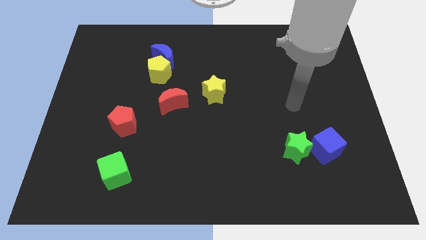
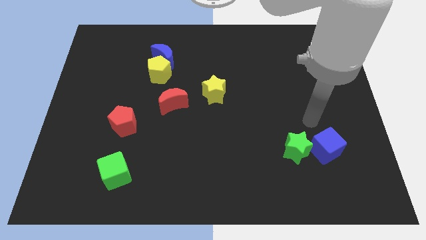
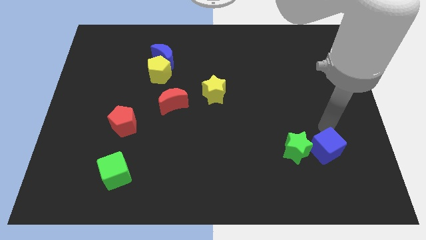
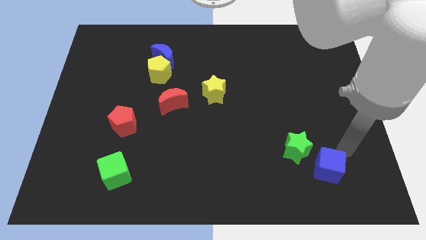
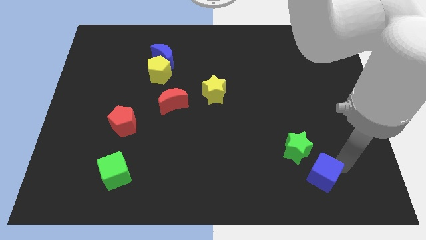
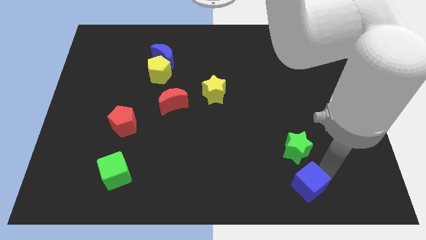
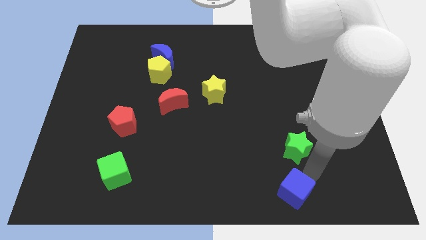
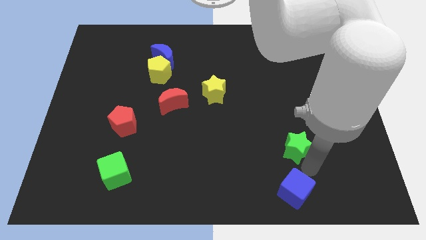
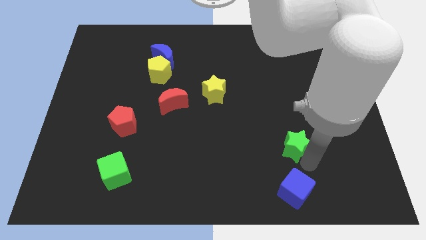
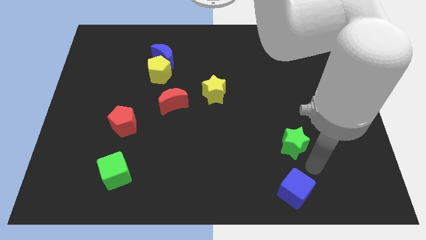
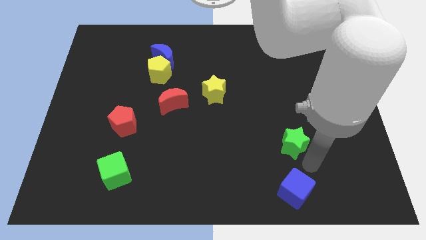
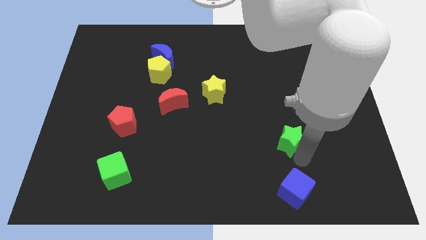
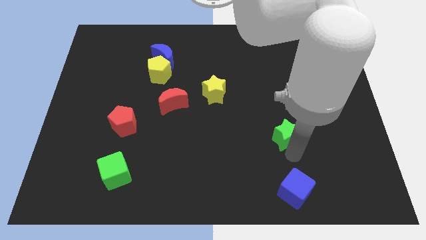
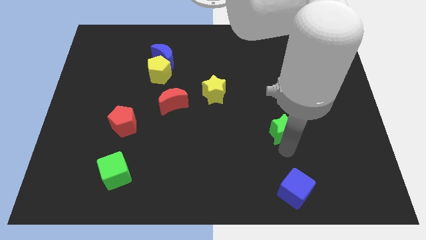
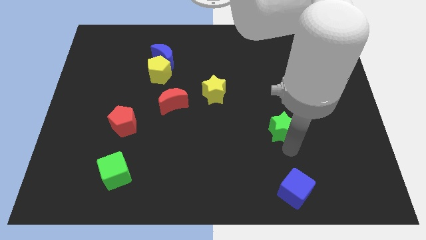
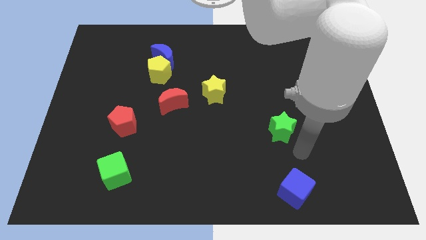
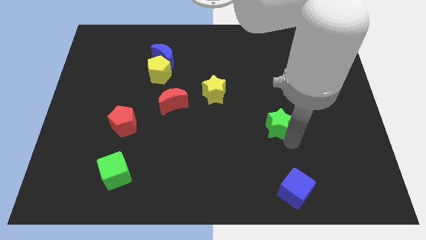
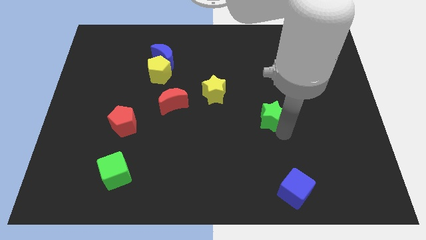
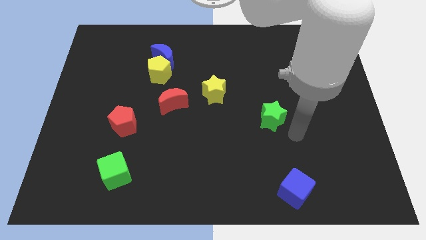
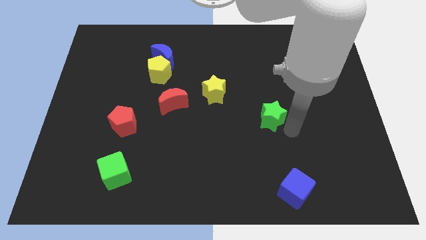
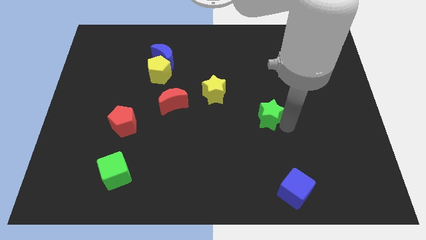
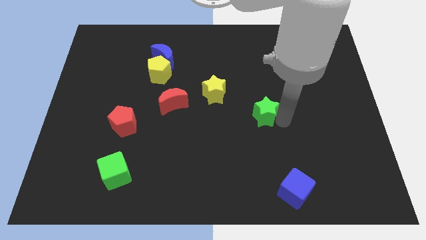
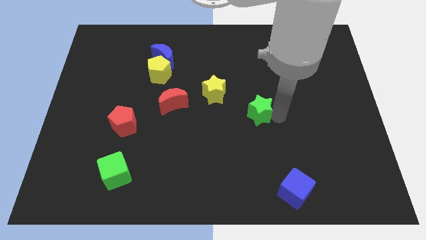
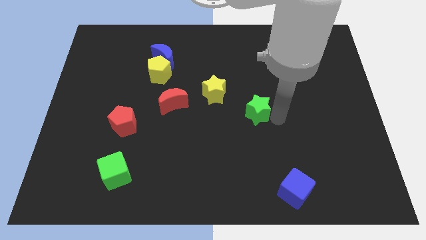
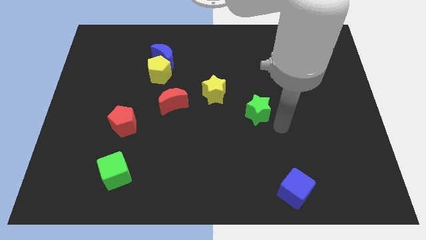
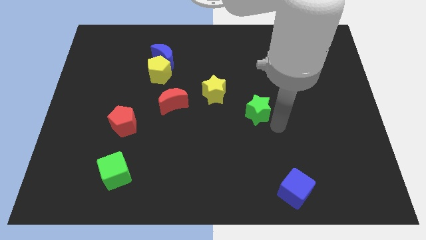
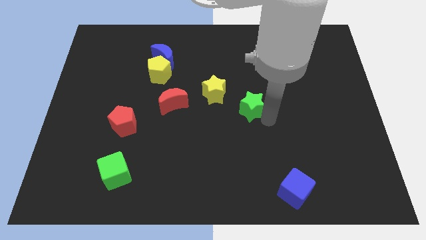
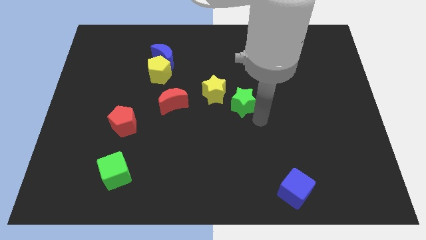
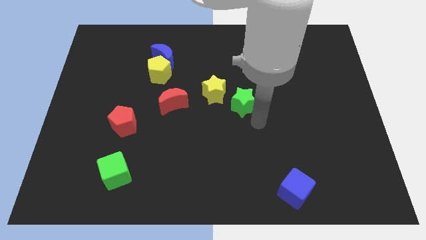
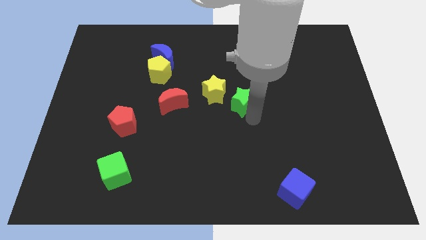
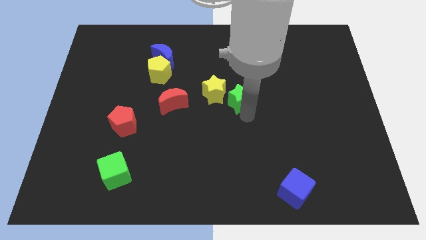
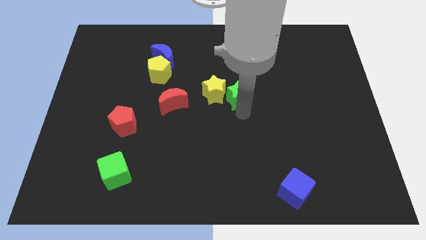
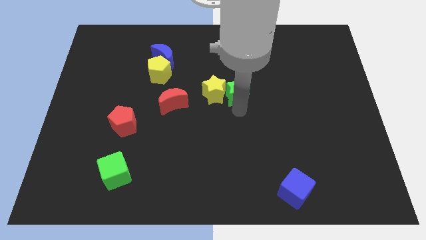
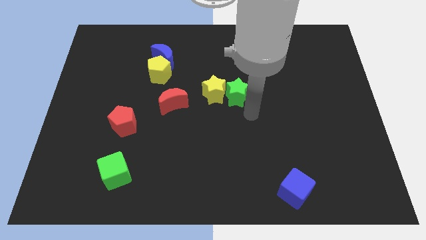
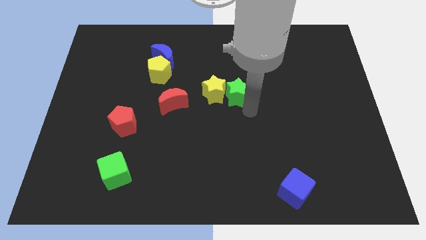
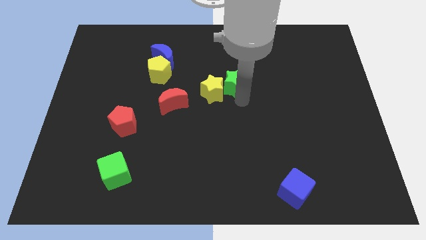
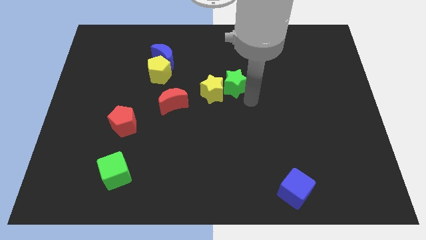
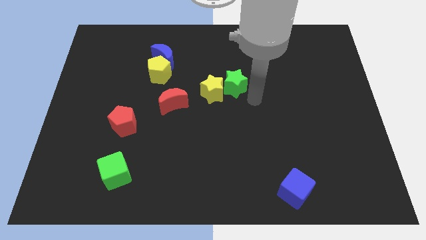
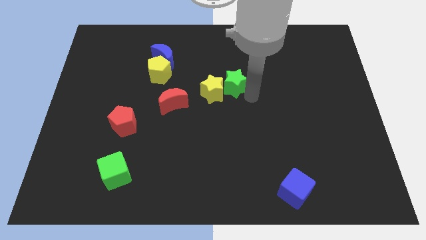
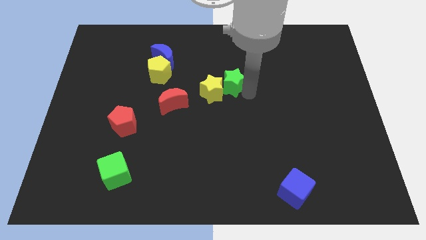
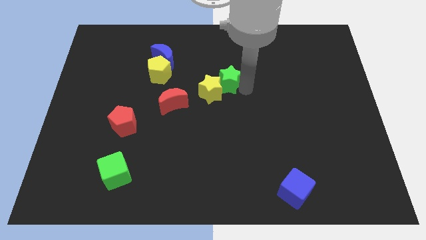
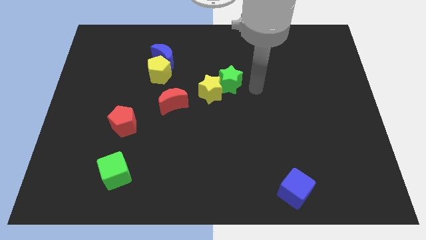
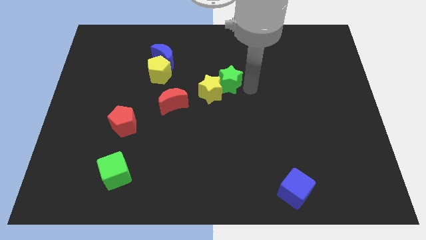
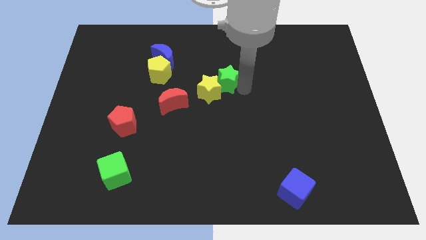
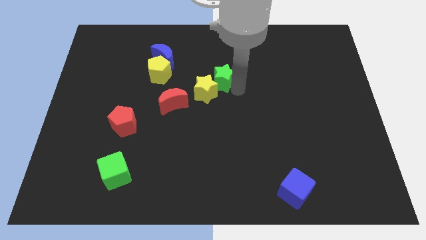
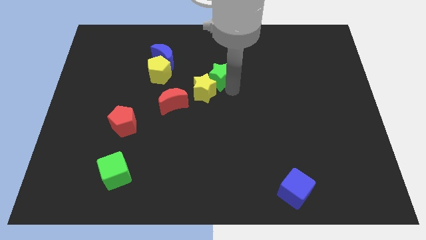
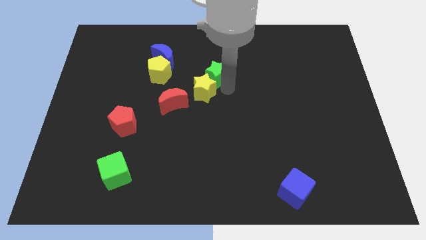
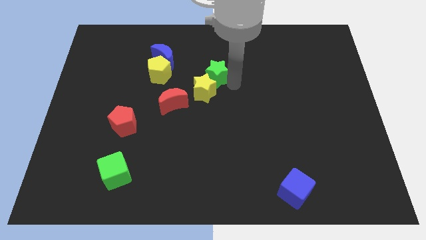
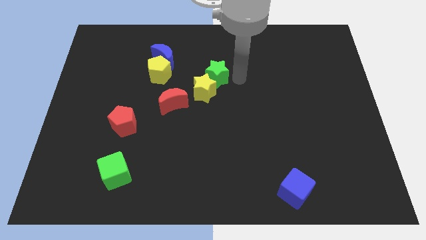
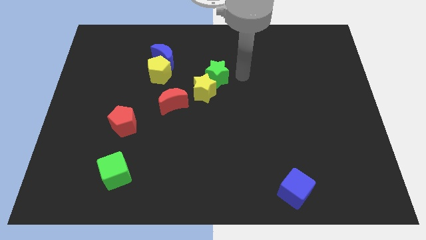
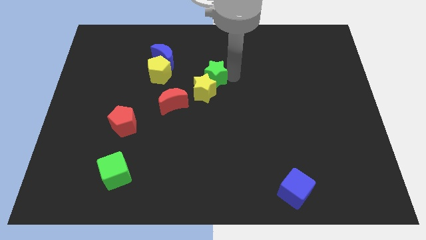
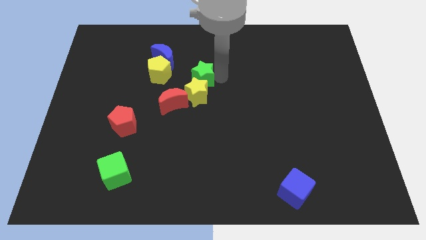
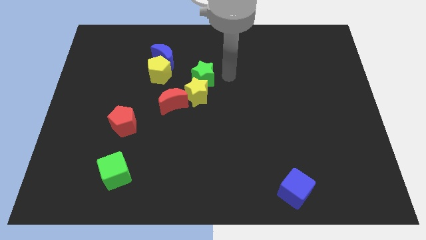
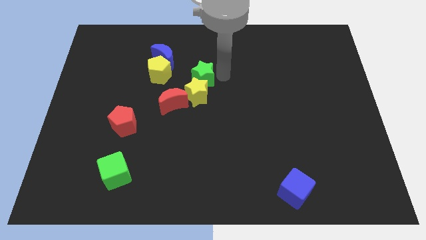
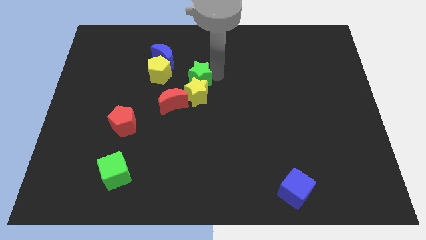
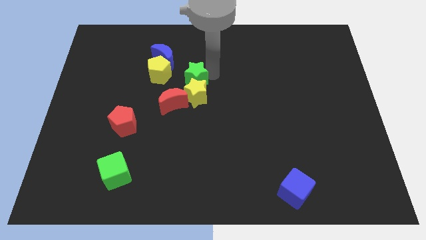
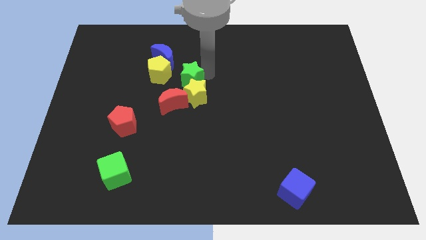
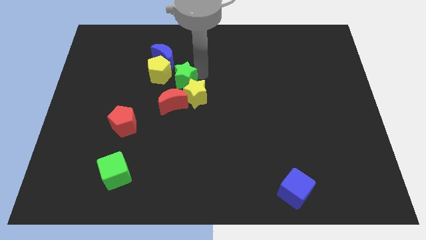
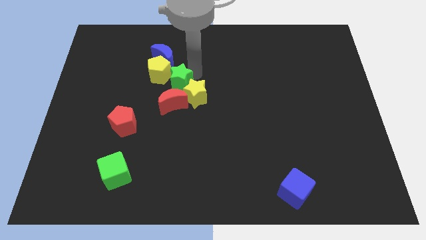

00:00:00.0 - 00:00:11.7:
move the green star to the bottom of the blue moon

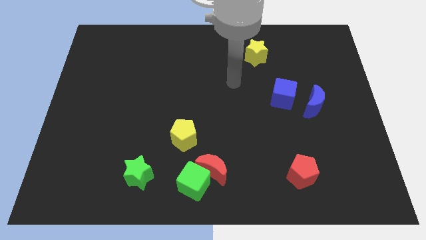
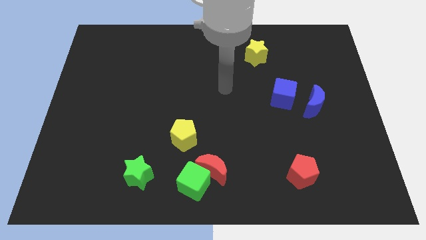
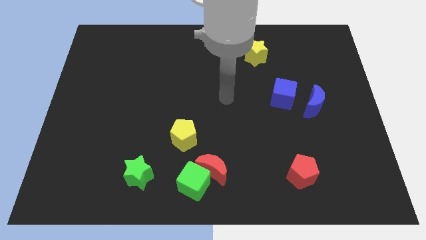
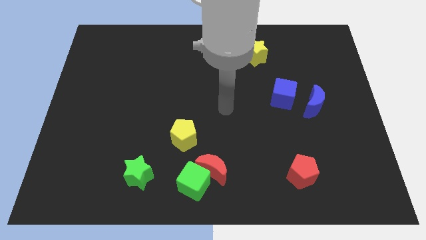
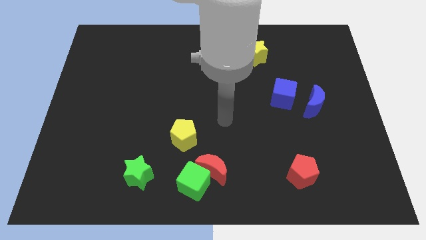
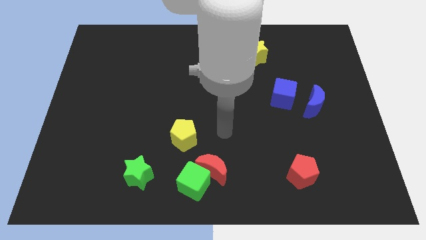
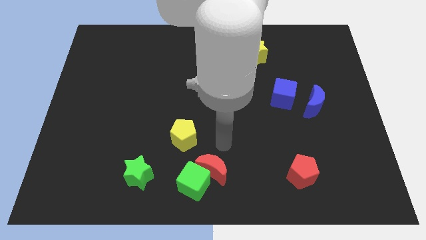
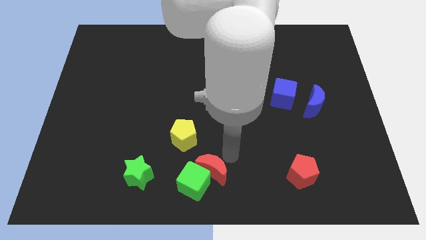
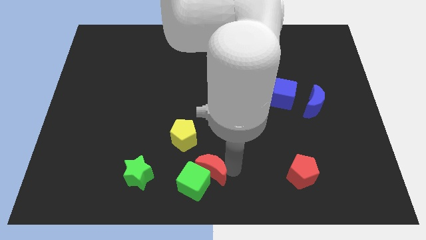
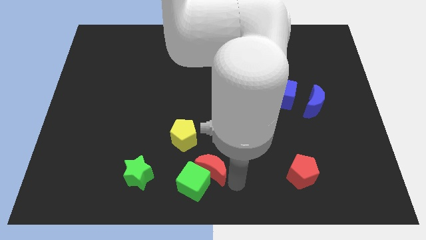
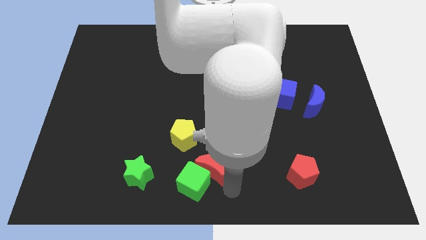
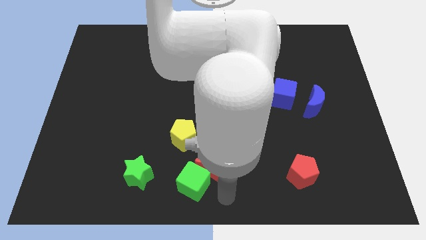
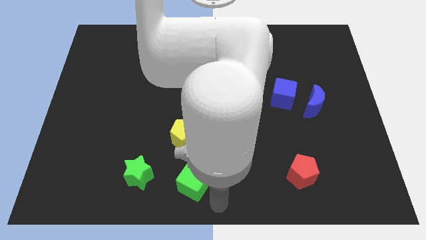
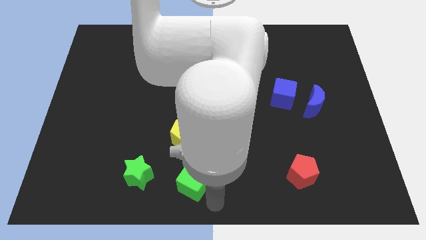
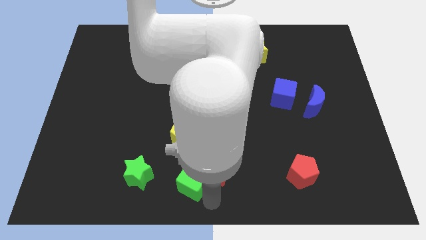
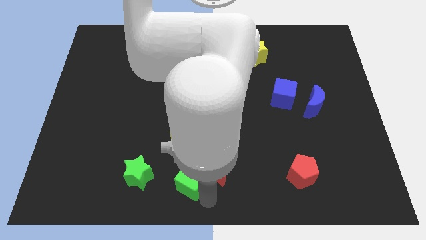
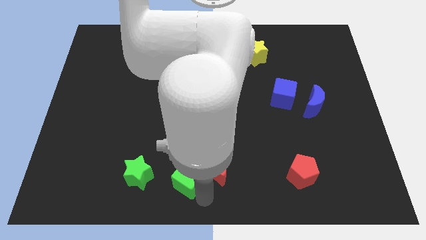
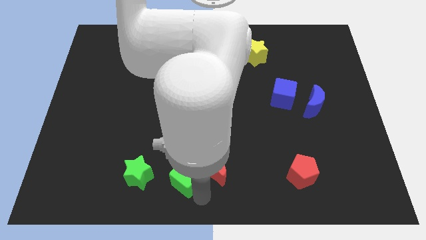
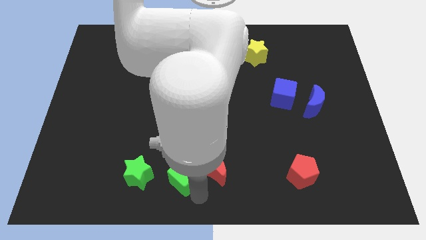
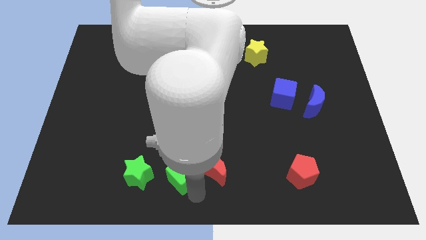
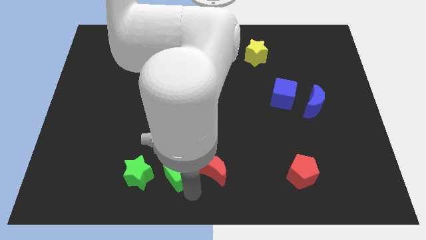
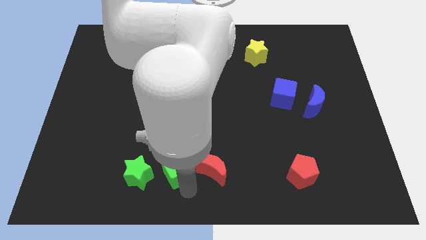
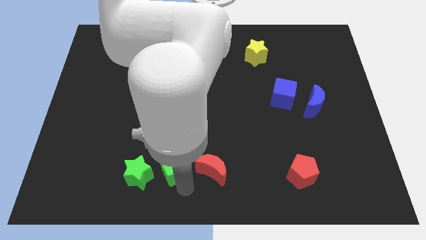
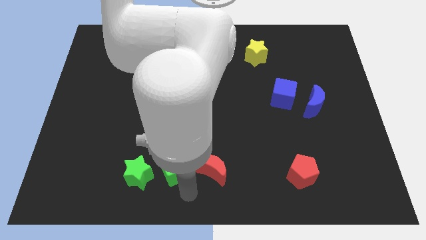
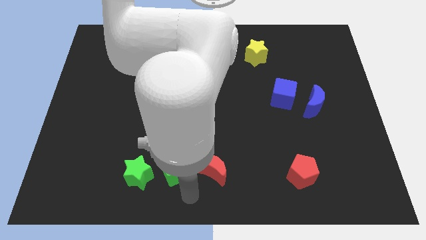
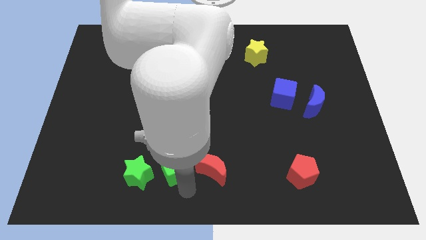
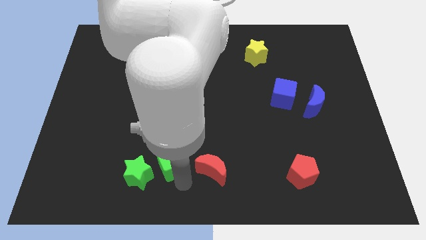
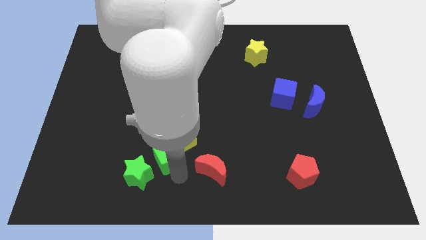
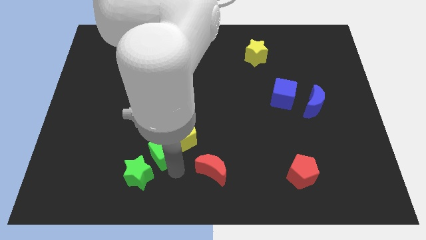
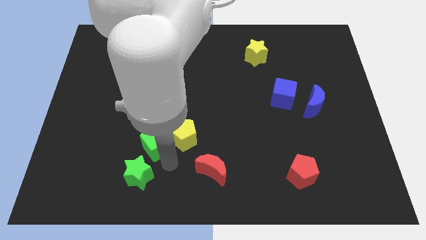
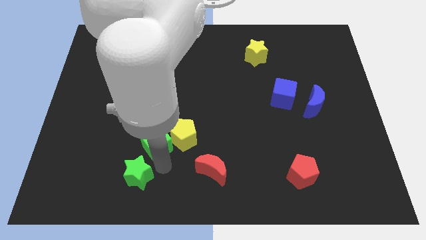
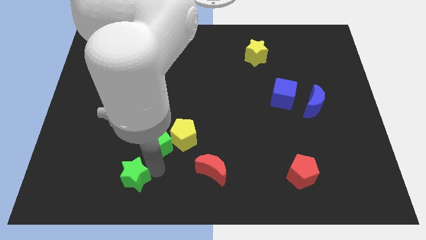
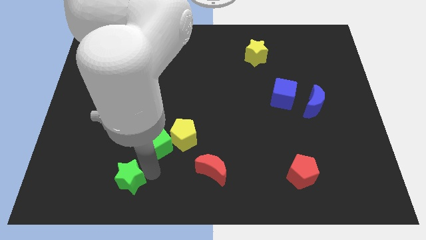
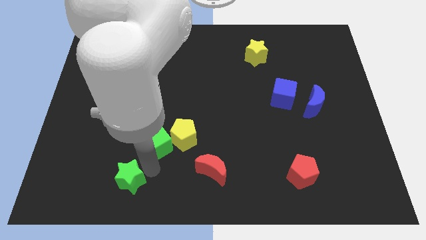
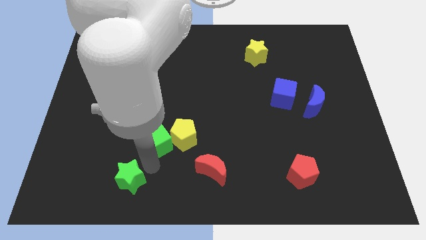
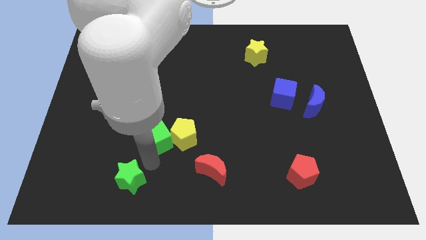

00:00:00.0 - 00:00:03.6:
push the green cube diagonally up and to the left of the yellow pentagon
